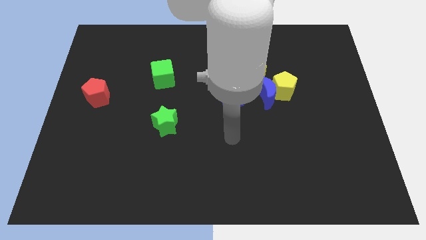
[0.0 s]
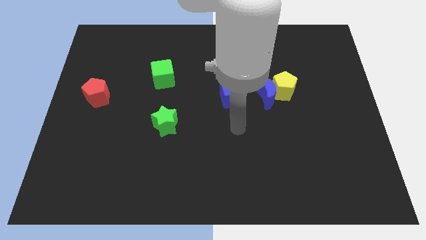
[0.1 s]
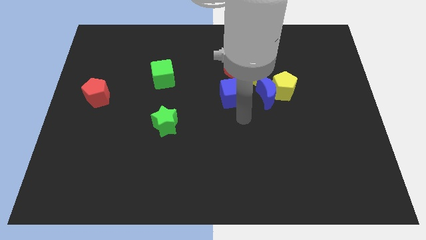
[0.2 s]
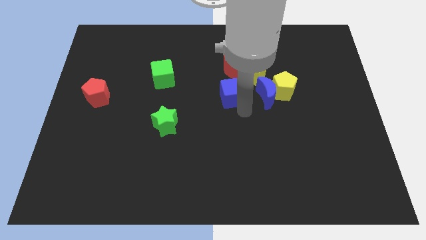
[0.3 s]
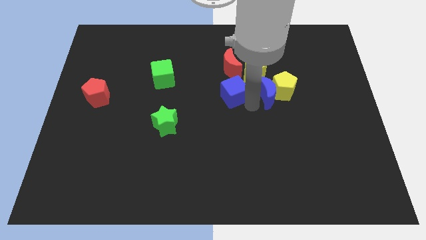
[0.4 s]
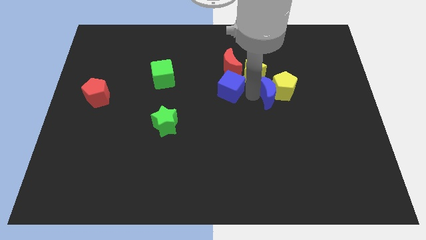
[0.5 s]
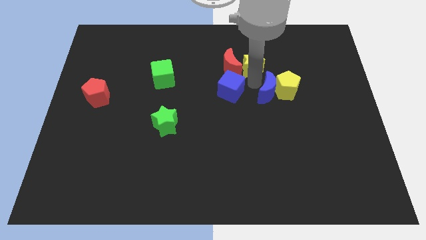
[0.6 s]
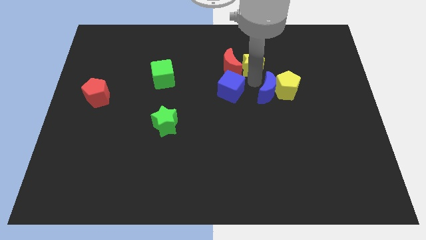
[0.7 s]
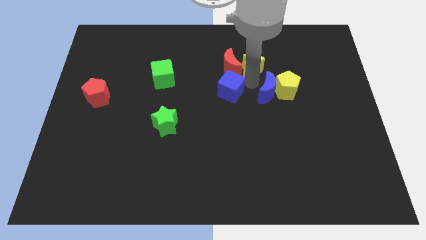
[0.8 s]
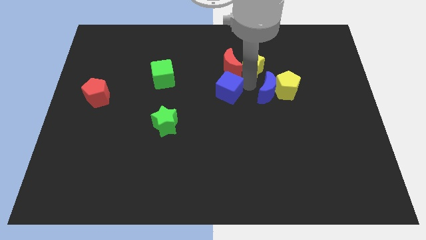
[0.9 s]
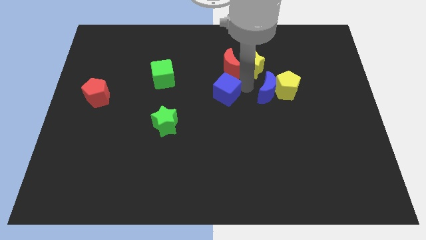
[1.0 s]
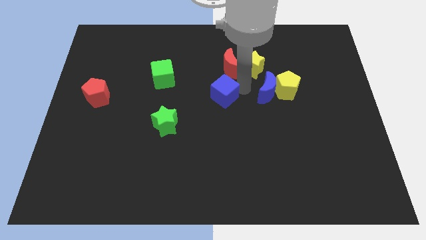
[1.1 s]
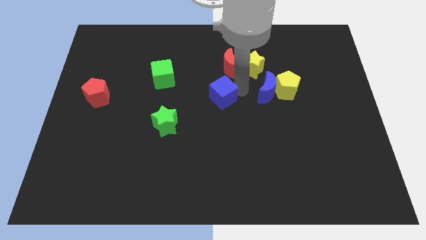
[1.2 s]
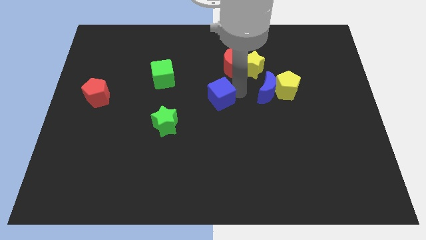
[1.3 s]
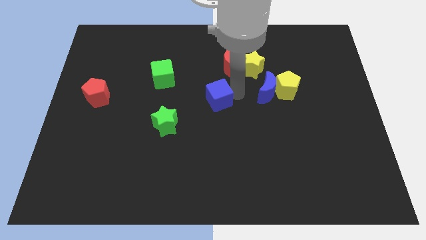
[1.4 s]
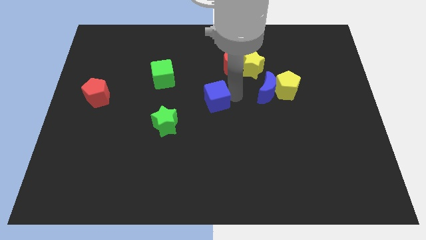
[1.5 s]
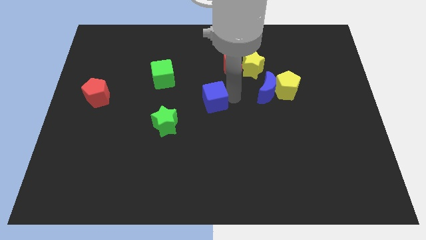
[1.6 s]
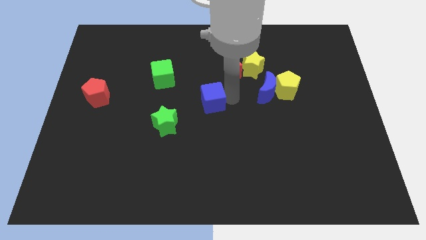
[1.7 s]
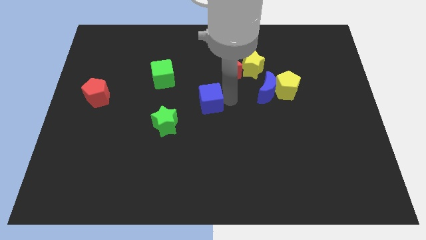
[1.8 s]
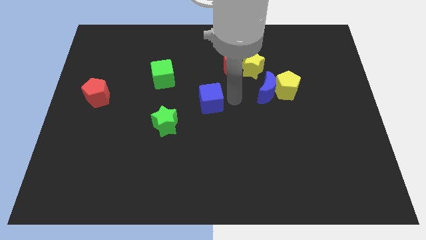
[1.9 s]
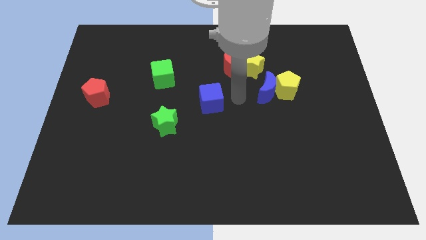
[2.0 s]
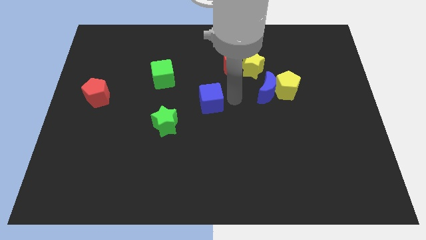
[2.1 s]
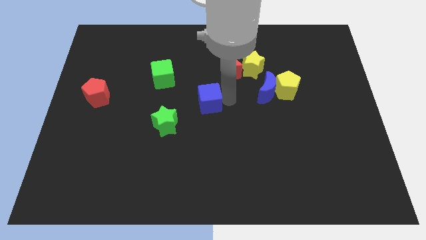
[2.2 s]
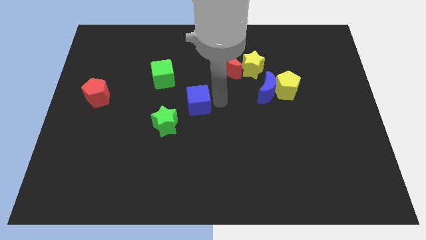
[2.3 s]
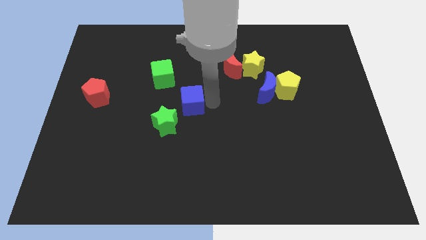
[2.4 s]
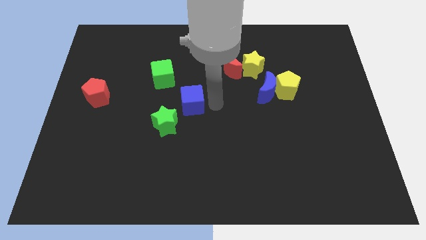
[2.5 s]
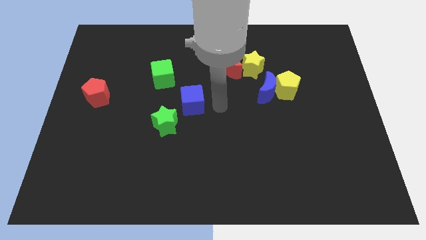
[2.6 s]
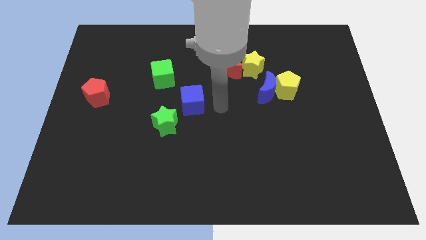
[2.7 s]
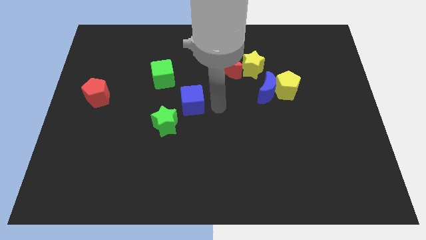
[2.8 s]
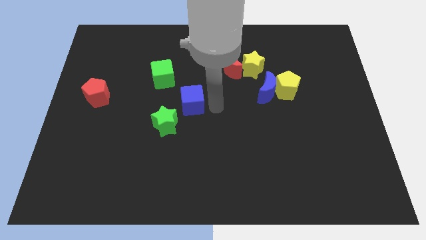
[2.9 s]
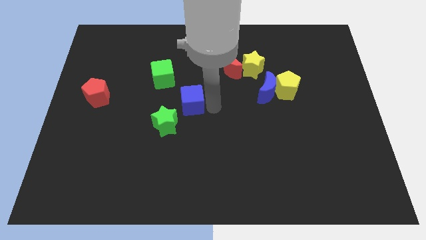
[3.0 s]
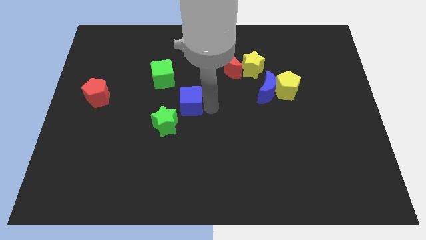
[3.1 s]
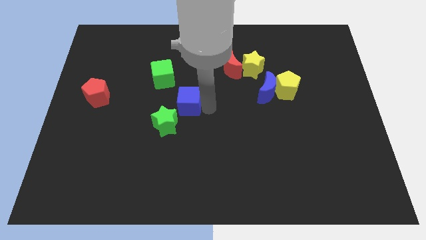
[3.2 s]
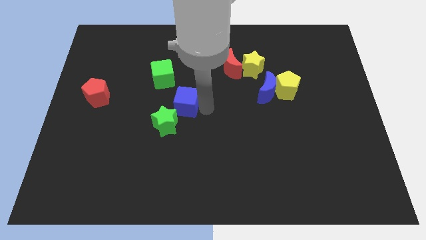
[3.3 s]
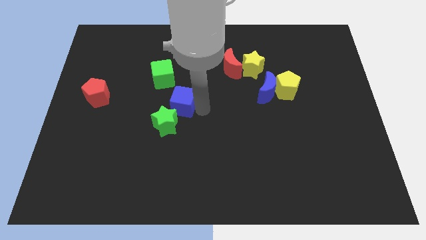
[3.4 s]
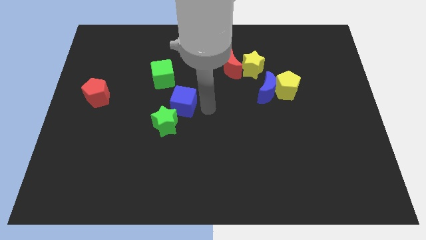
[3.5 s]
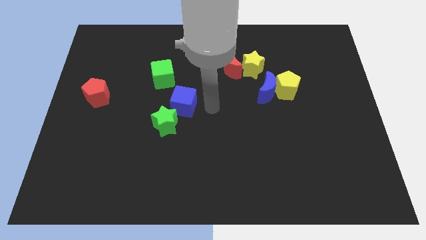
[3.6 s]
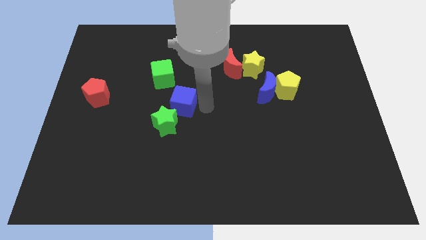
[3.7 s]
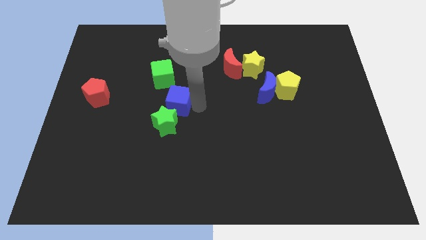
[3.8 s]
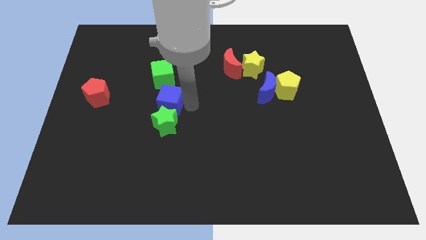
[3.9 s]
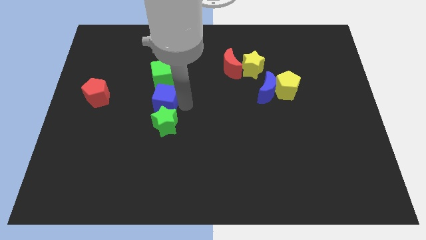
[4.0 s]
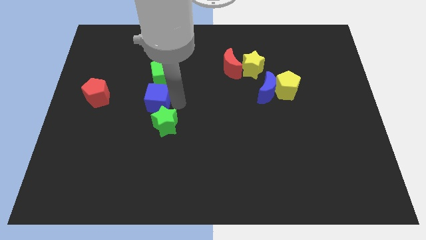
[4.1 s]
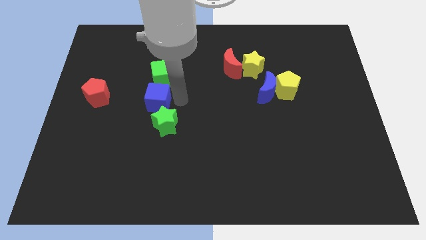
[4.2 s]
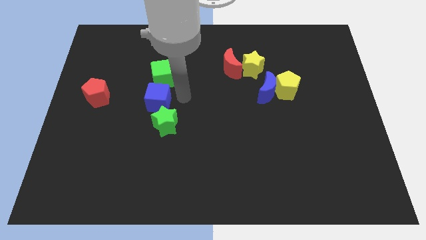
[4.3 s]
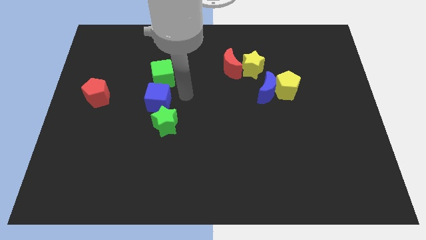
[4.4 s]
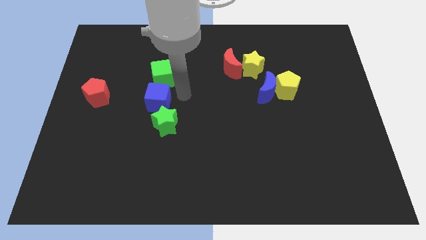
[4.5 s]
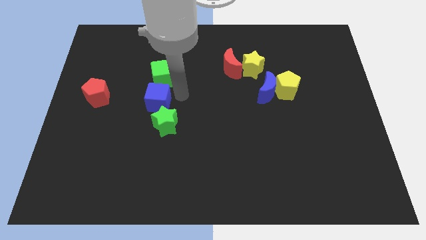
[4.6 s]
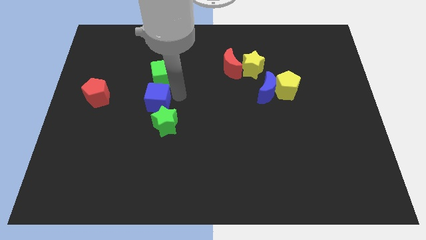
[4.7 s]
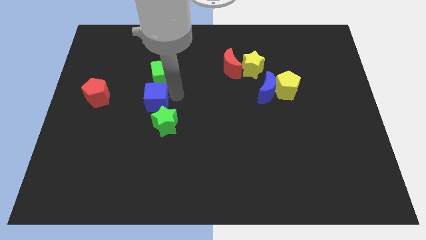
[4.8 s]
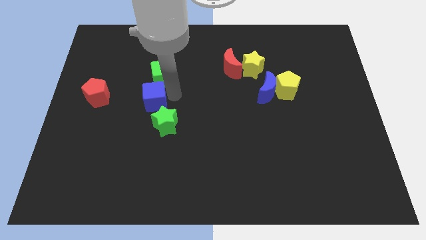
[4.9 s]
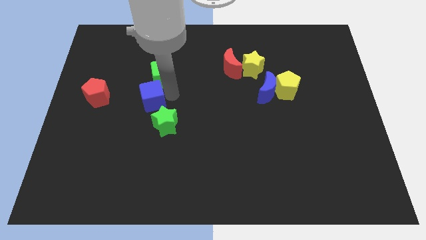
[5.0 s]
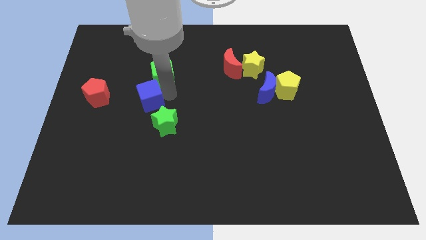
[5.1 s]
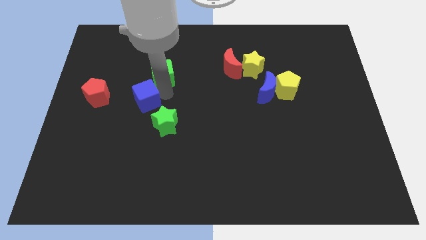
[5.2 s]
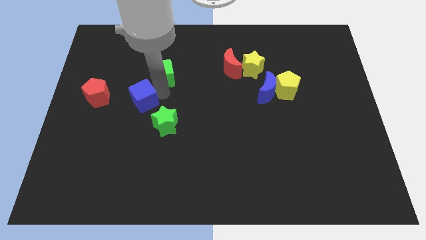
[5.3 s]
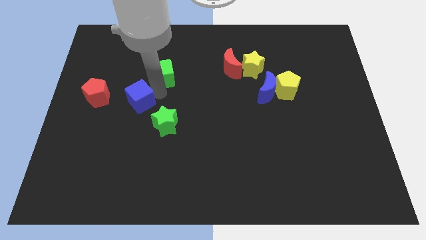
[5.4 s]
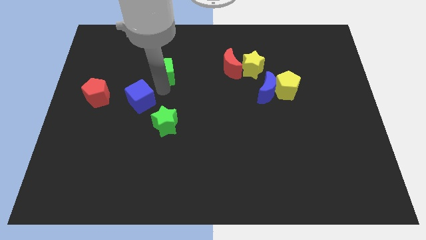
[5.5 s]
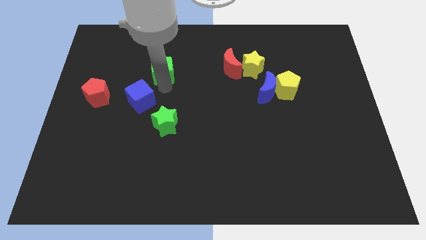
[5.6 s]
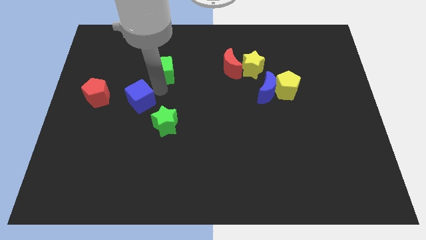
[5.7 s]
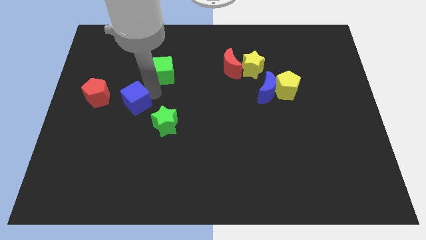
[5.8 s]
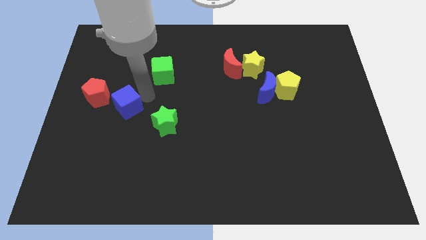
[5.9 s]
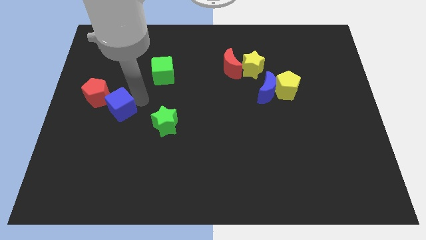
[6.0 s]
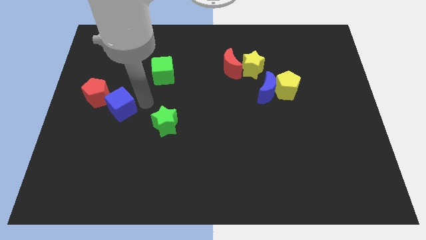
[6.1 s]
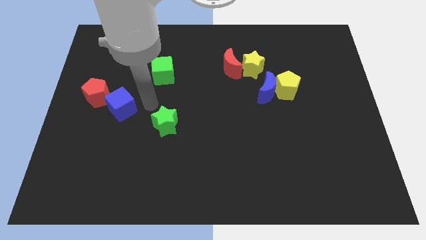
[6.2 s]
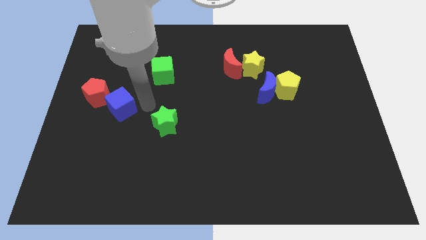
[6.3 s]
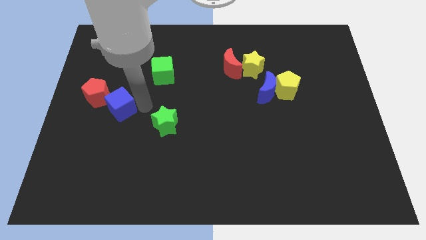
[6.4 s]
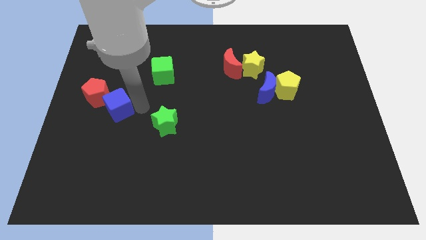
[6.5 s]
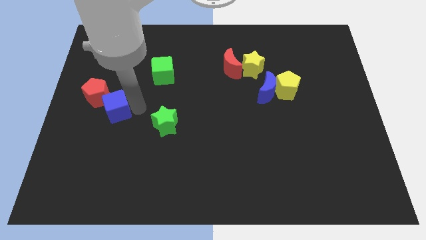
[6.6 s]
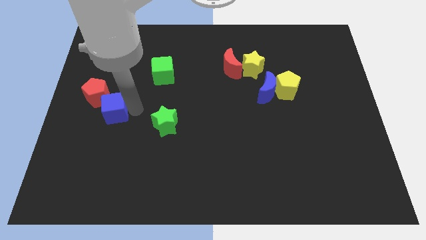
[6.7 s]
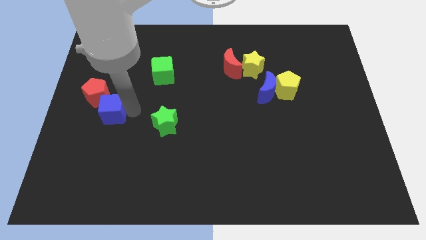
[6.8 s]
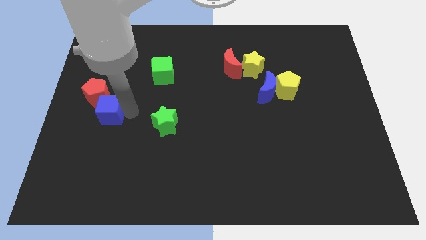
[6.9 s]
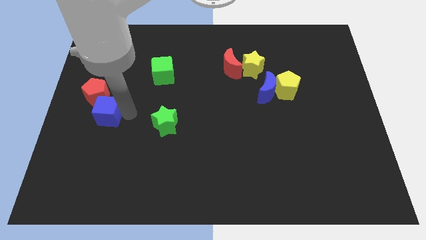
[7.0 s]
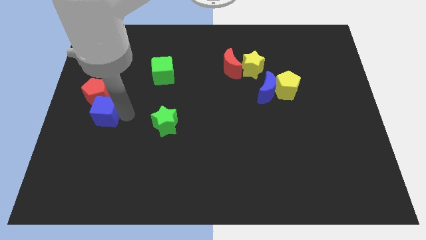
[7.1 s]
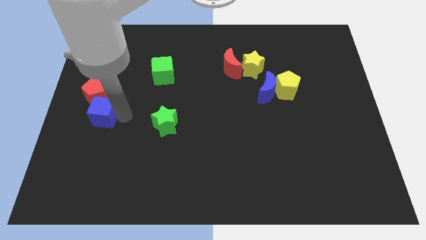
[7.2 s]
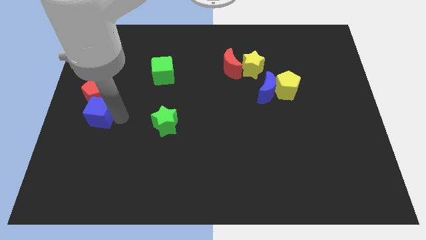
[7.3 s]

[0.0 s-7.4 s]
put the blue cube to the center left
